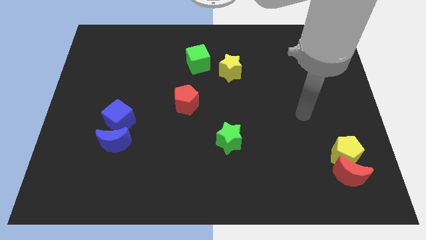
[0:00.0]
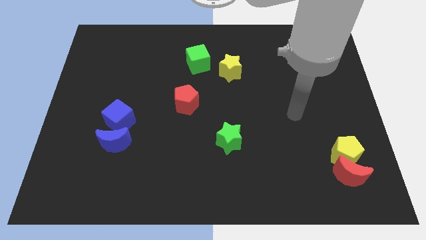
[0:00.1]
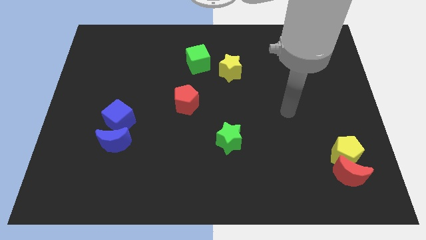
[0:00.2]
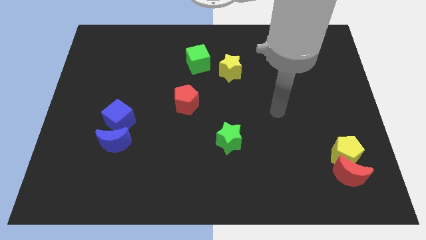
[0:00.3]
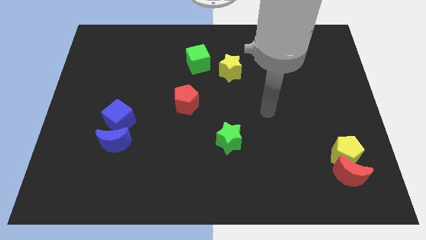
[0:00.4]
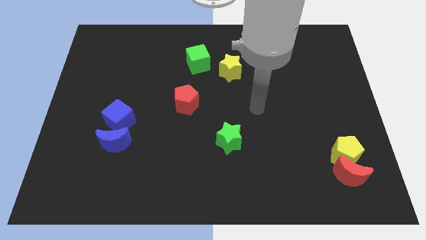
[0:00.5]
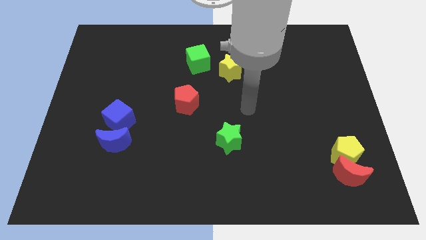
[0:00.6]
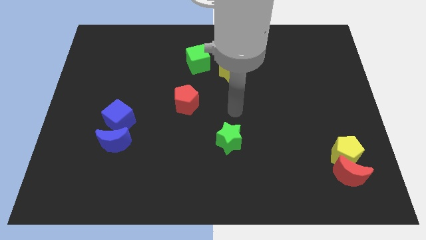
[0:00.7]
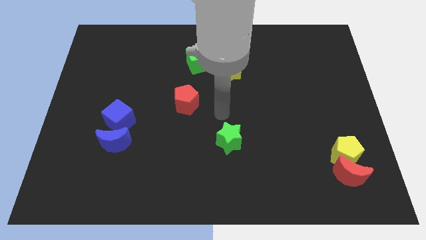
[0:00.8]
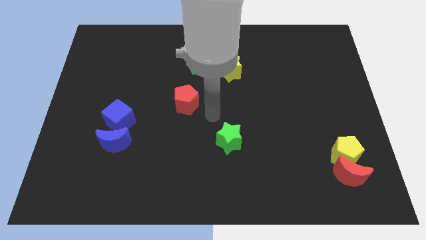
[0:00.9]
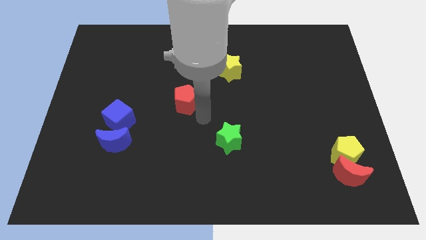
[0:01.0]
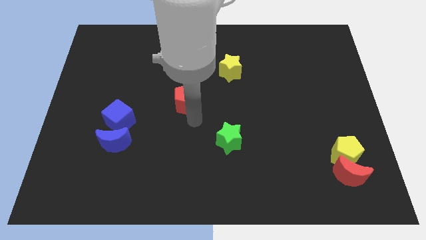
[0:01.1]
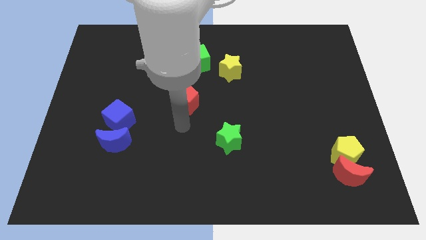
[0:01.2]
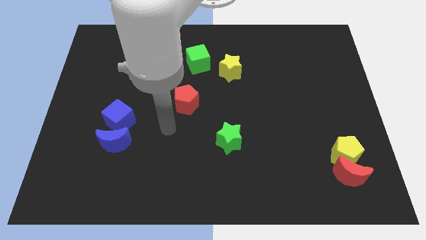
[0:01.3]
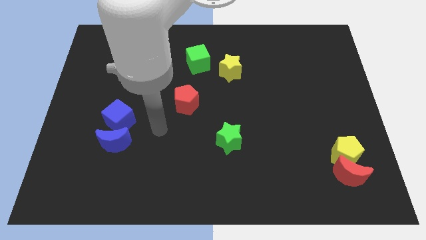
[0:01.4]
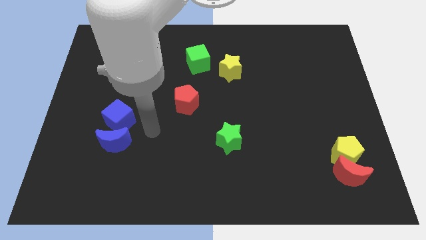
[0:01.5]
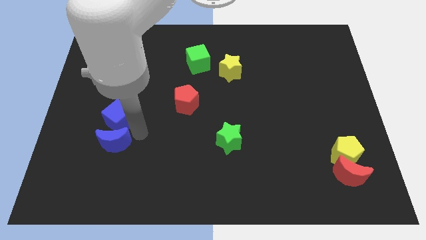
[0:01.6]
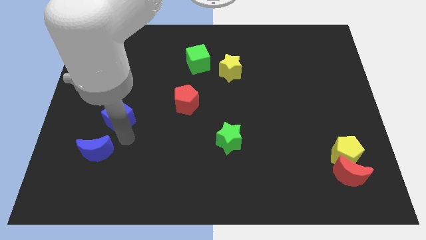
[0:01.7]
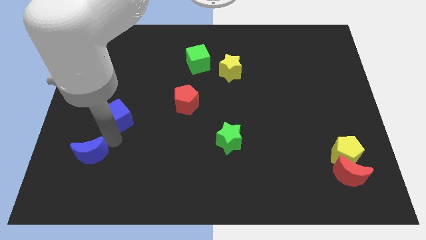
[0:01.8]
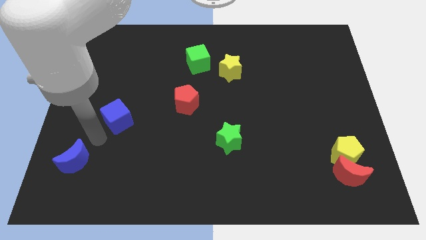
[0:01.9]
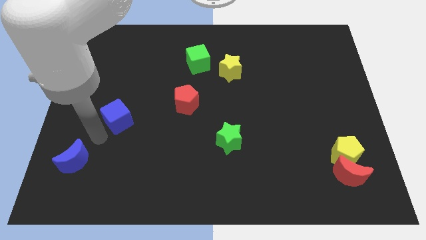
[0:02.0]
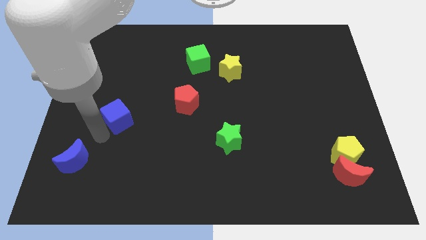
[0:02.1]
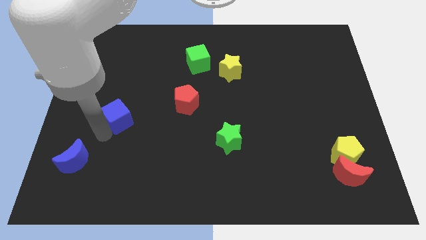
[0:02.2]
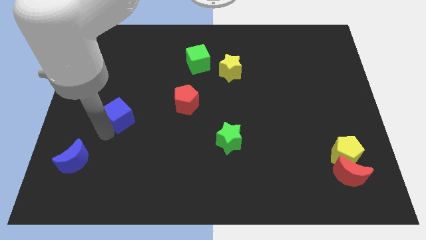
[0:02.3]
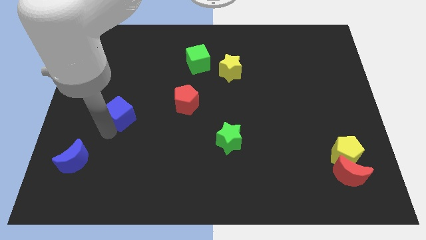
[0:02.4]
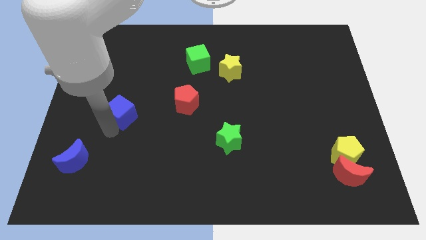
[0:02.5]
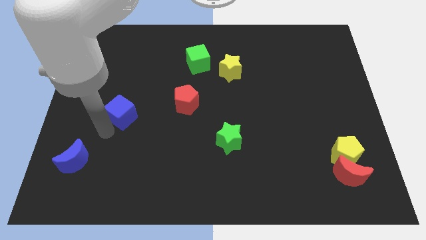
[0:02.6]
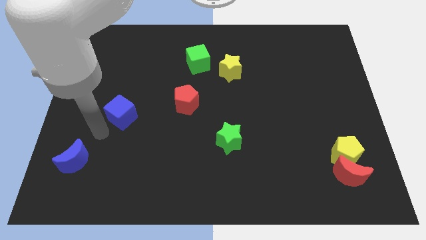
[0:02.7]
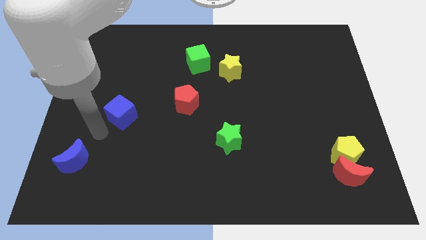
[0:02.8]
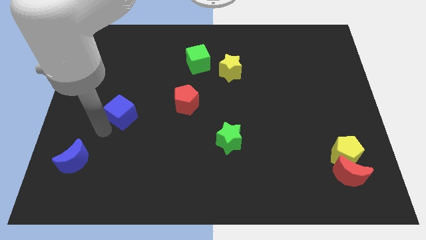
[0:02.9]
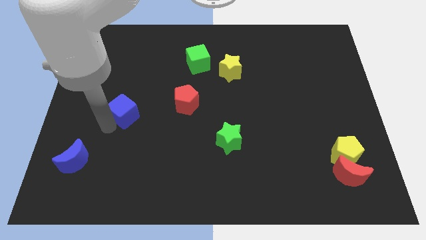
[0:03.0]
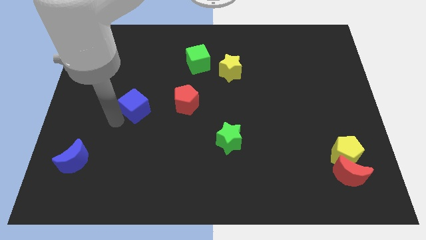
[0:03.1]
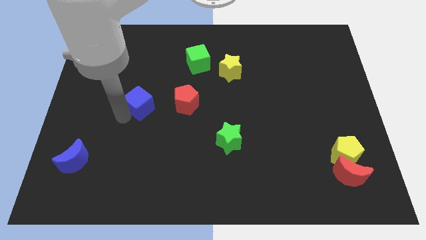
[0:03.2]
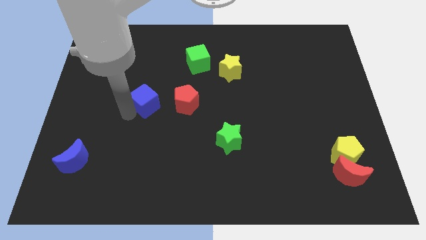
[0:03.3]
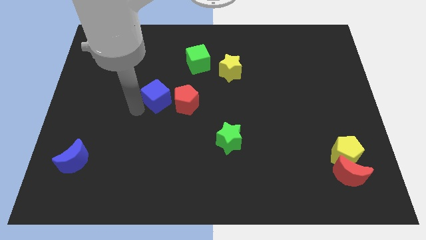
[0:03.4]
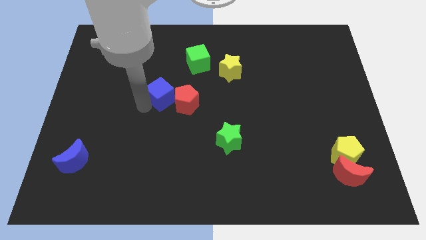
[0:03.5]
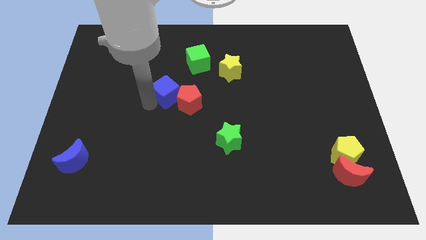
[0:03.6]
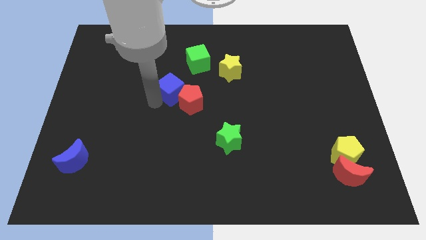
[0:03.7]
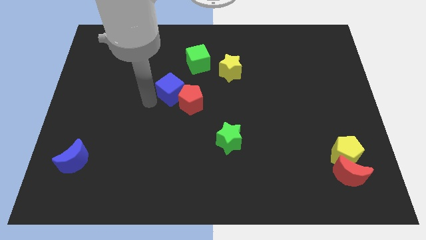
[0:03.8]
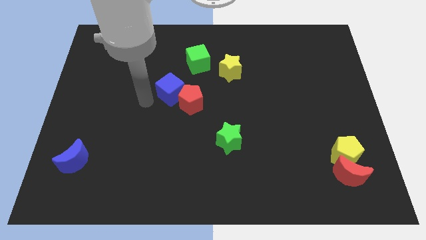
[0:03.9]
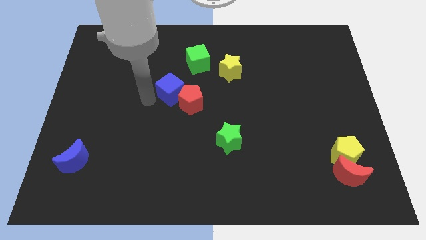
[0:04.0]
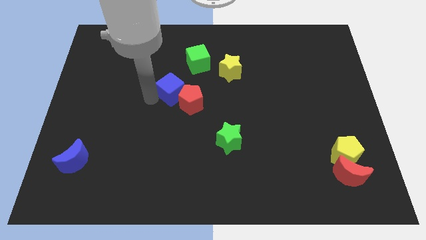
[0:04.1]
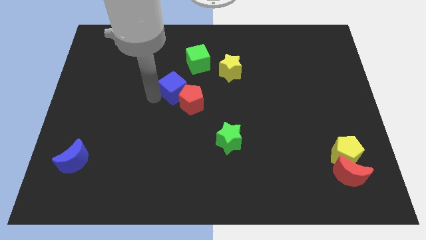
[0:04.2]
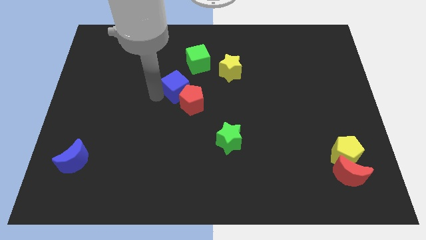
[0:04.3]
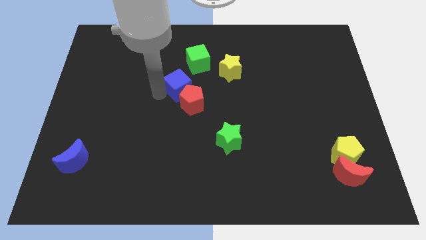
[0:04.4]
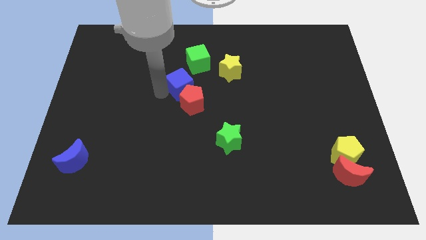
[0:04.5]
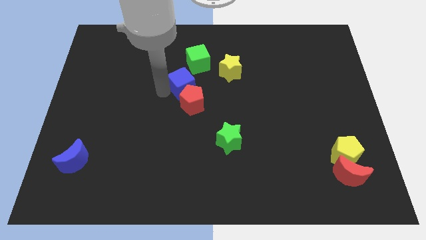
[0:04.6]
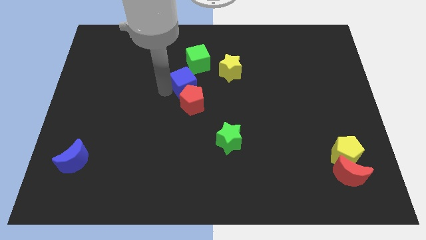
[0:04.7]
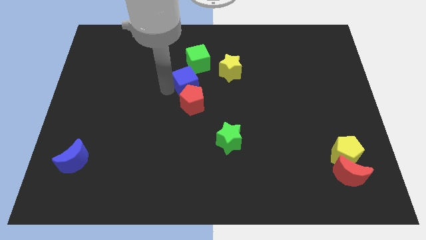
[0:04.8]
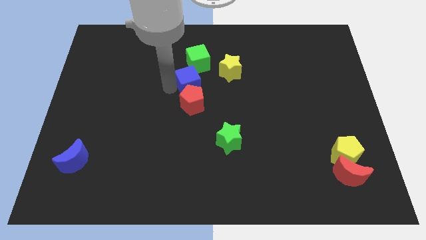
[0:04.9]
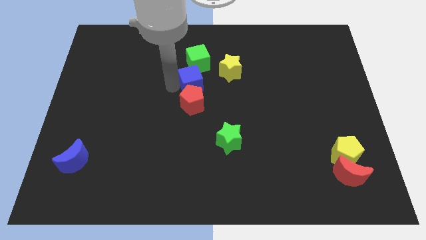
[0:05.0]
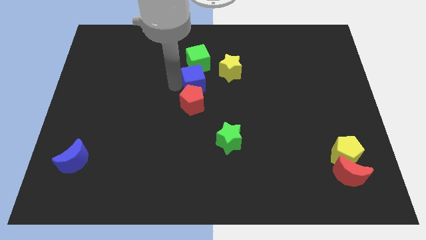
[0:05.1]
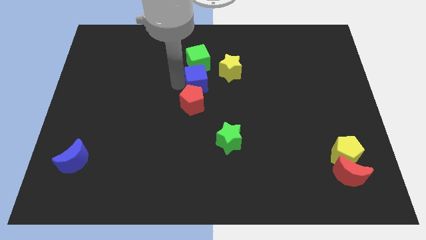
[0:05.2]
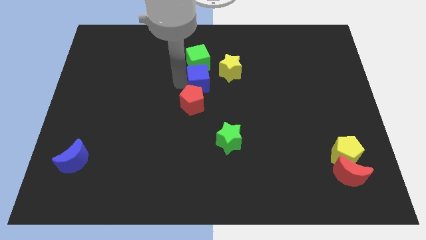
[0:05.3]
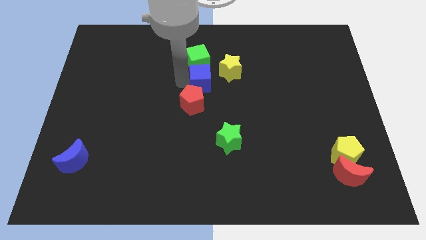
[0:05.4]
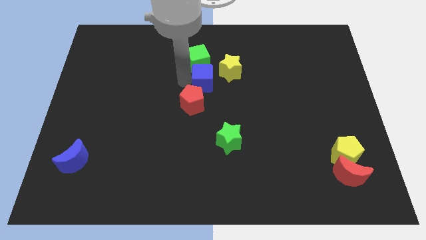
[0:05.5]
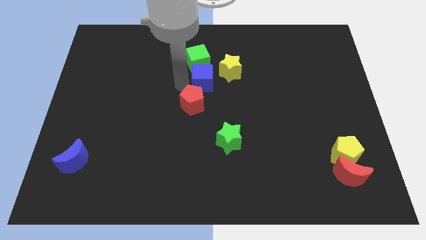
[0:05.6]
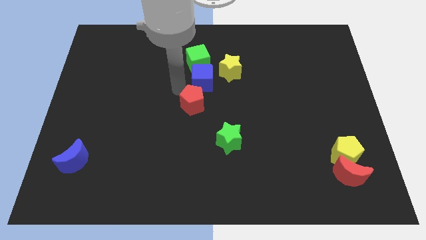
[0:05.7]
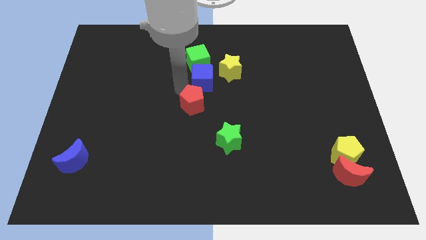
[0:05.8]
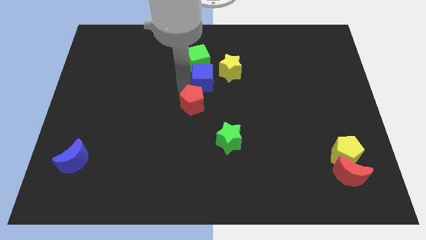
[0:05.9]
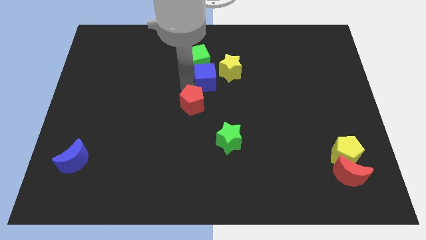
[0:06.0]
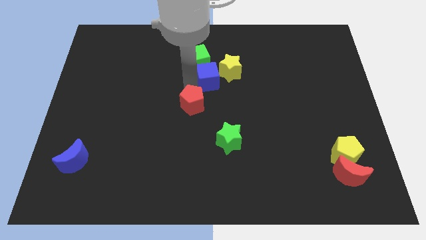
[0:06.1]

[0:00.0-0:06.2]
push the blue cube to the yellow star

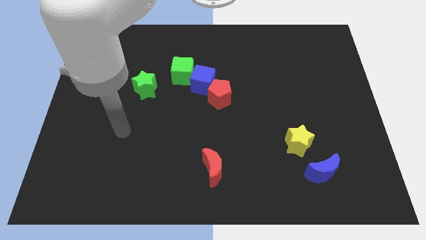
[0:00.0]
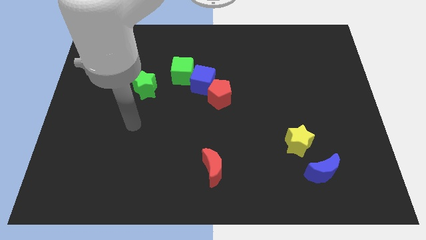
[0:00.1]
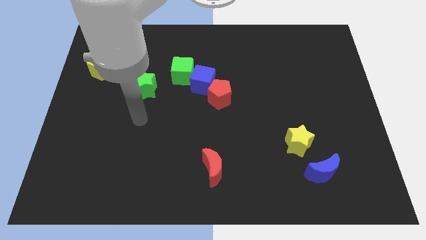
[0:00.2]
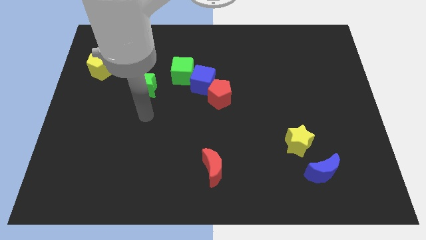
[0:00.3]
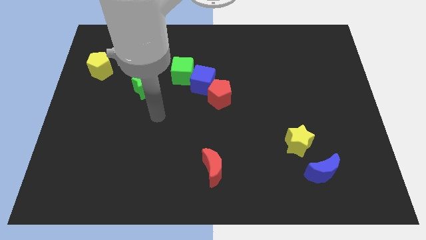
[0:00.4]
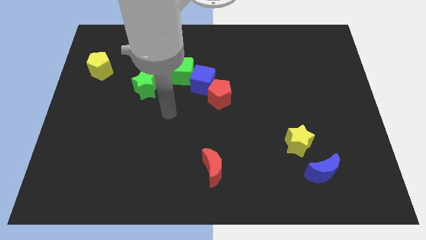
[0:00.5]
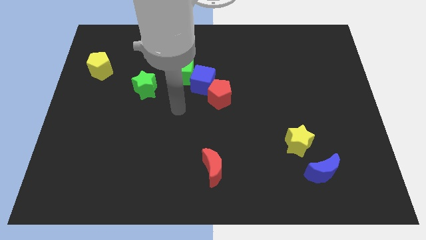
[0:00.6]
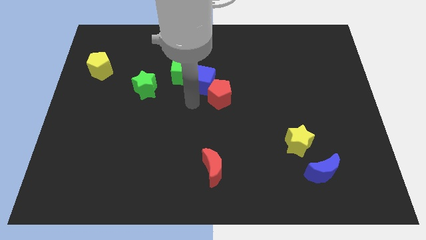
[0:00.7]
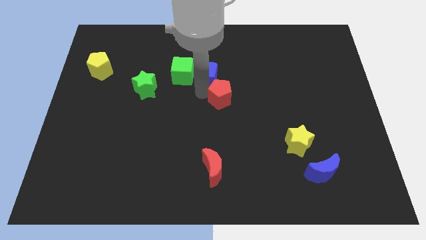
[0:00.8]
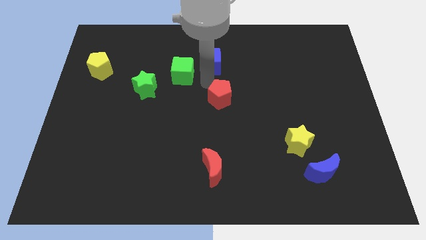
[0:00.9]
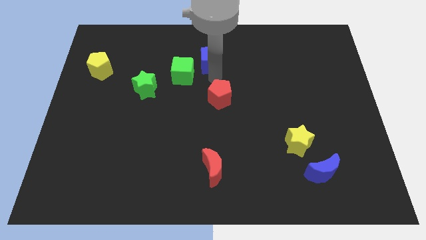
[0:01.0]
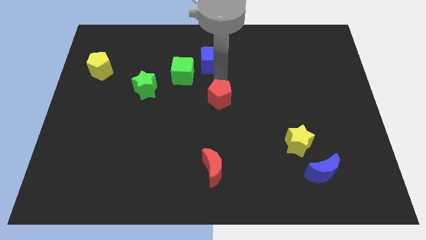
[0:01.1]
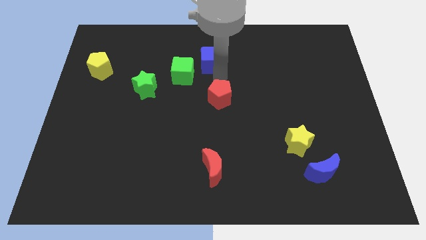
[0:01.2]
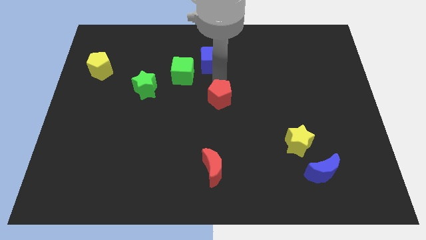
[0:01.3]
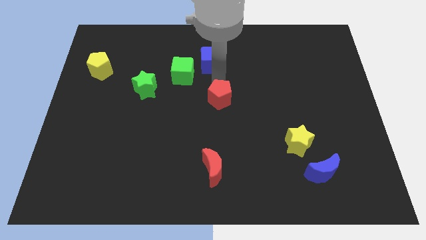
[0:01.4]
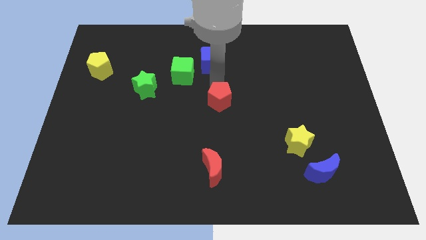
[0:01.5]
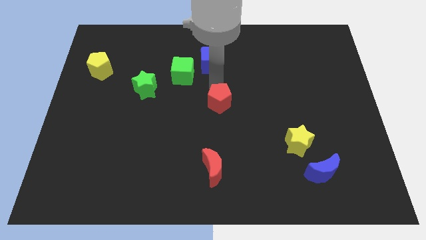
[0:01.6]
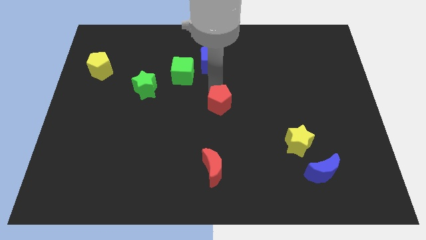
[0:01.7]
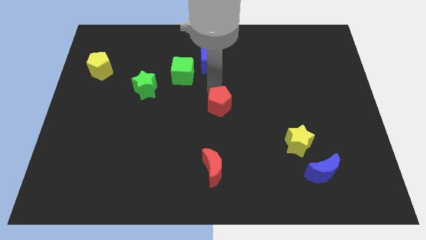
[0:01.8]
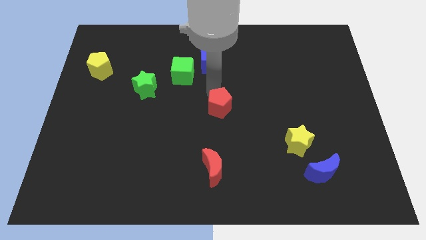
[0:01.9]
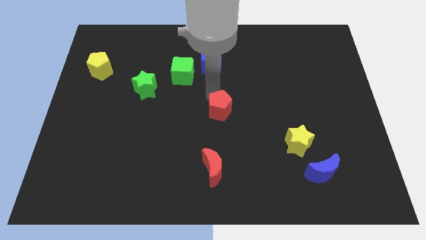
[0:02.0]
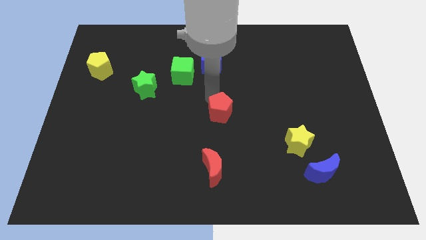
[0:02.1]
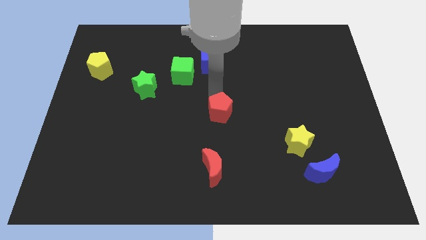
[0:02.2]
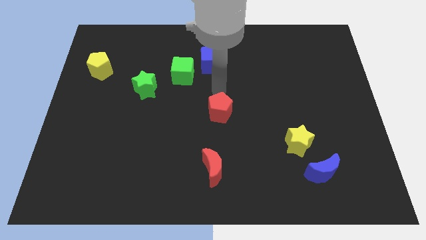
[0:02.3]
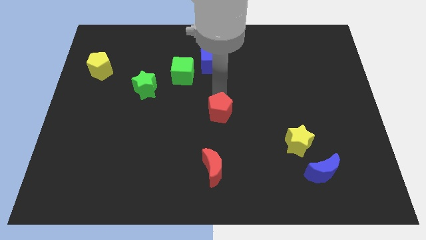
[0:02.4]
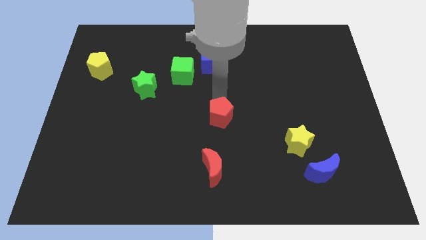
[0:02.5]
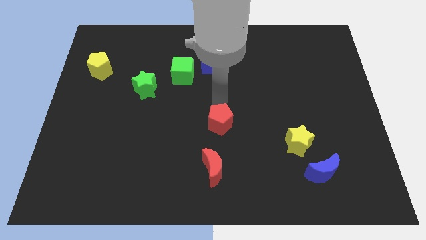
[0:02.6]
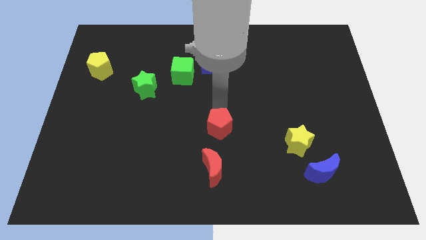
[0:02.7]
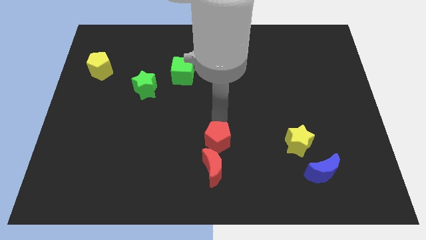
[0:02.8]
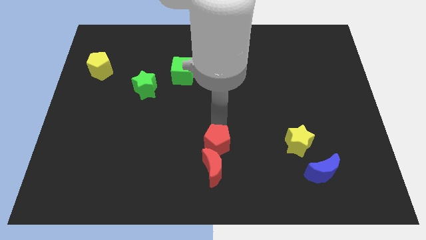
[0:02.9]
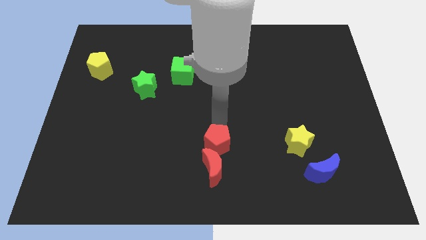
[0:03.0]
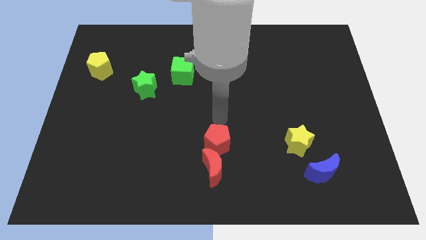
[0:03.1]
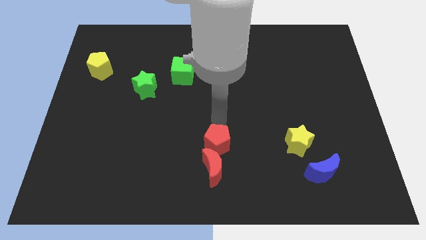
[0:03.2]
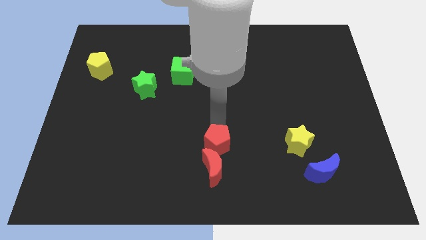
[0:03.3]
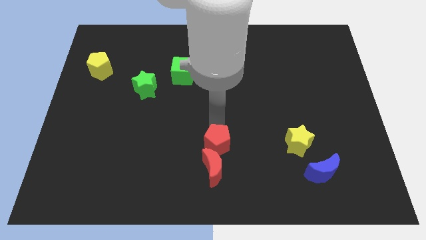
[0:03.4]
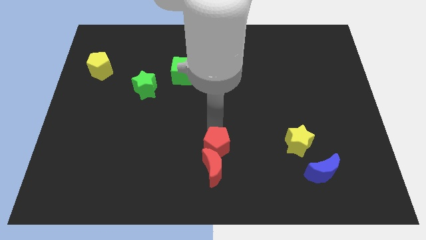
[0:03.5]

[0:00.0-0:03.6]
put the red pentagon towards the red moon
